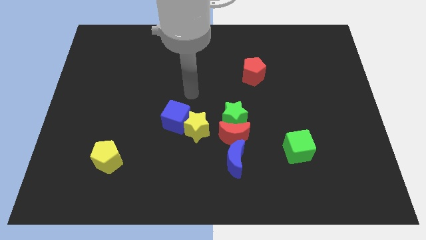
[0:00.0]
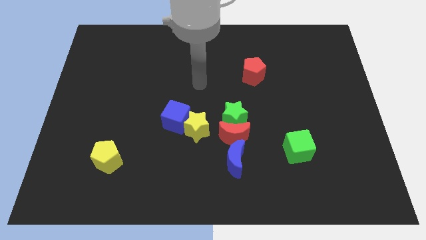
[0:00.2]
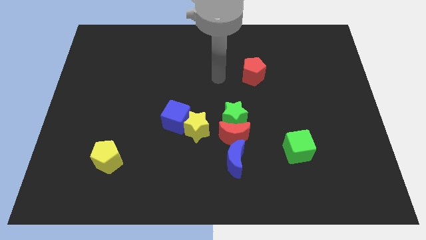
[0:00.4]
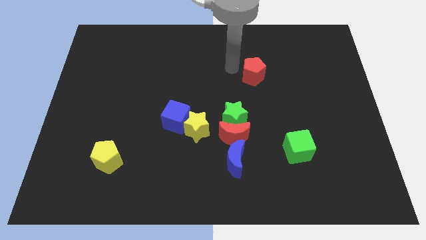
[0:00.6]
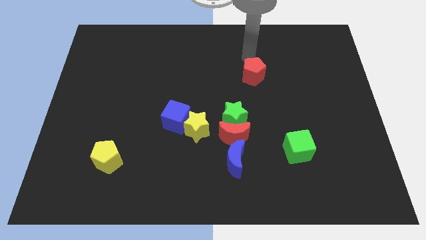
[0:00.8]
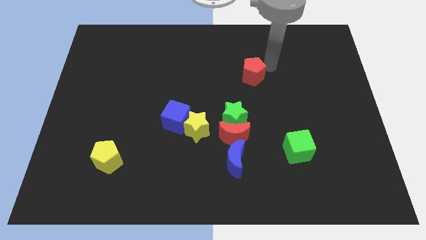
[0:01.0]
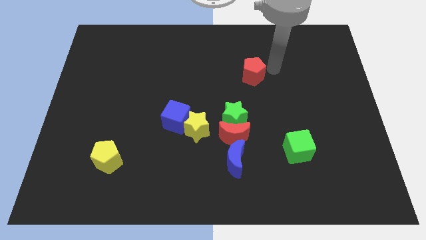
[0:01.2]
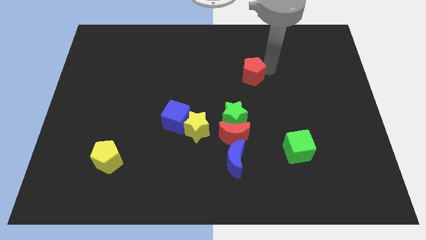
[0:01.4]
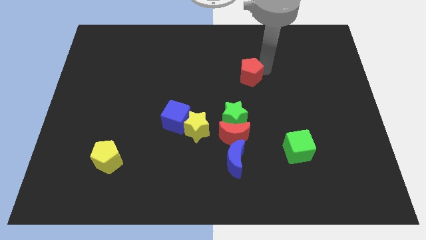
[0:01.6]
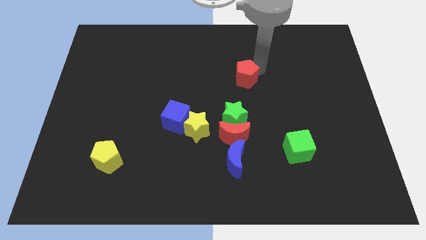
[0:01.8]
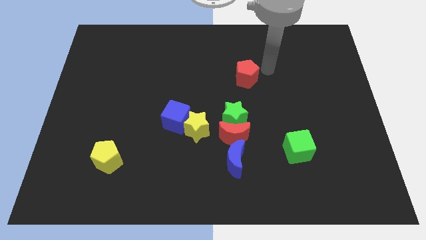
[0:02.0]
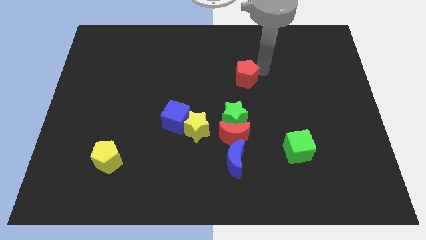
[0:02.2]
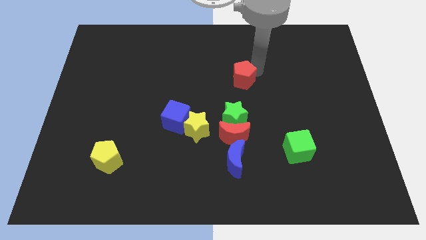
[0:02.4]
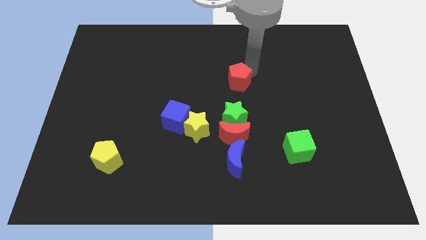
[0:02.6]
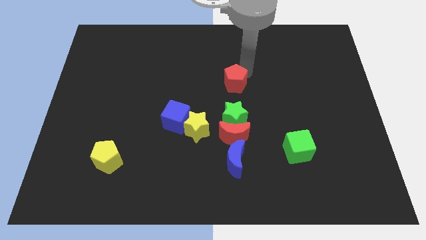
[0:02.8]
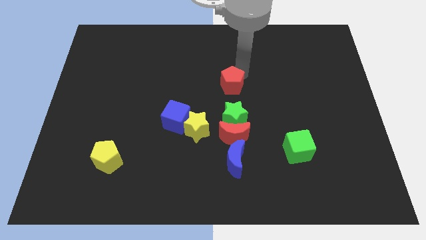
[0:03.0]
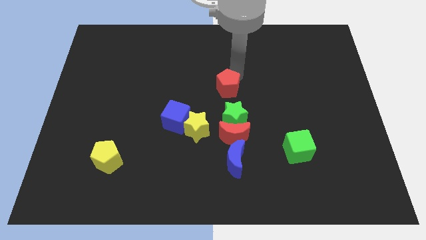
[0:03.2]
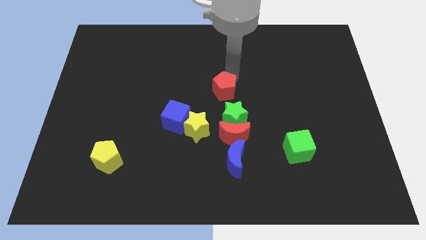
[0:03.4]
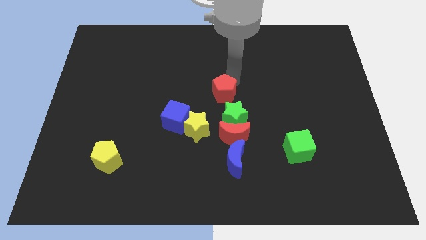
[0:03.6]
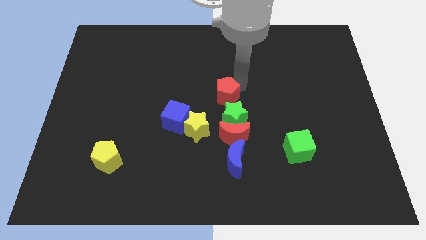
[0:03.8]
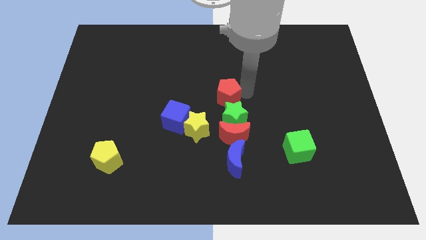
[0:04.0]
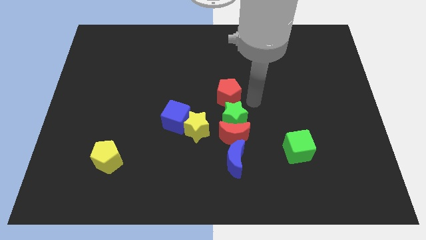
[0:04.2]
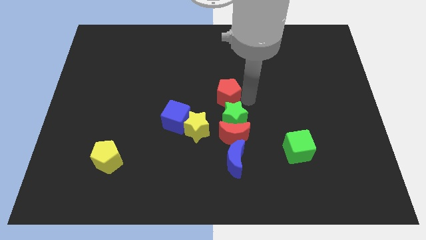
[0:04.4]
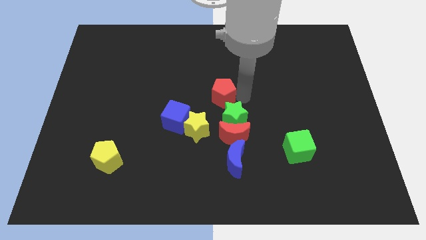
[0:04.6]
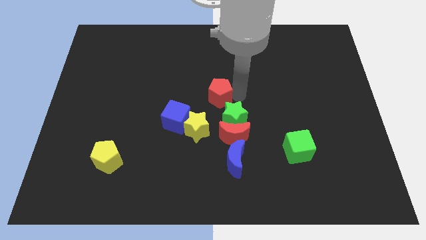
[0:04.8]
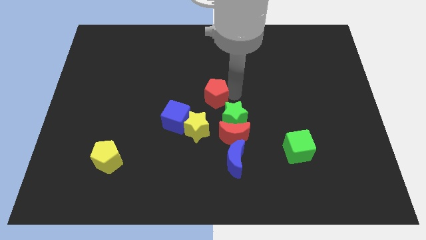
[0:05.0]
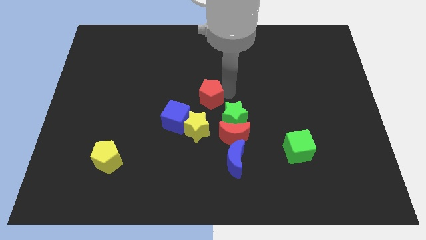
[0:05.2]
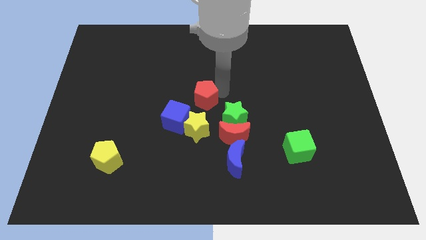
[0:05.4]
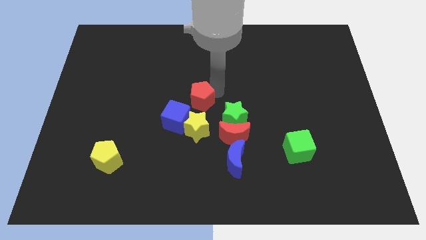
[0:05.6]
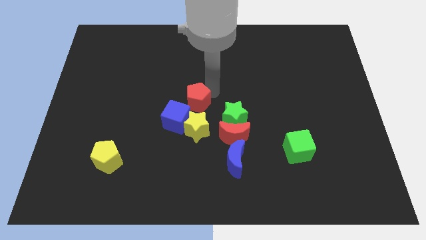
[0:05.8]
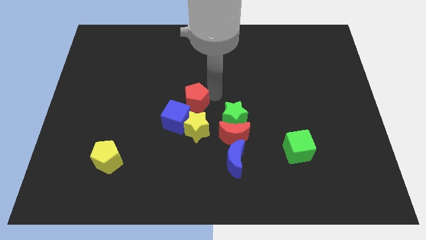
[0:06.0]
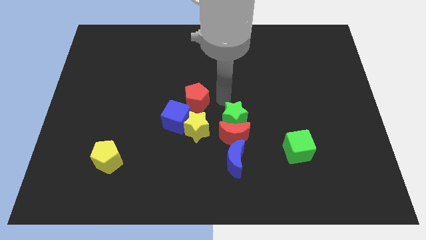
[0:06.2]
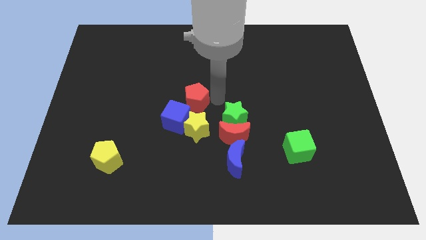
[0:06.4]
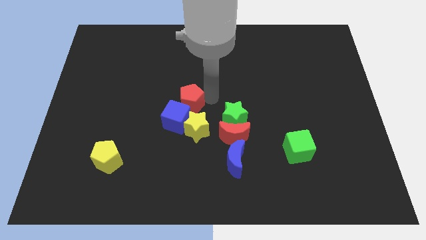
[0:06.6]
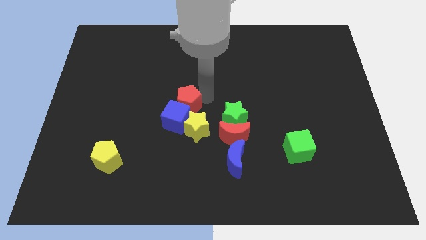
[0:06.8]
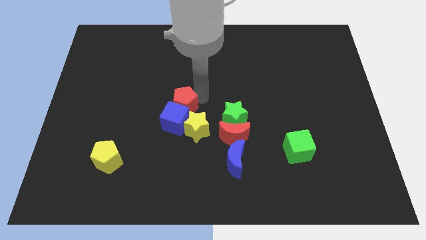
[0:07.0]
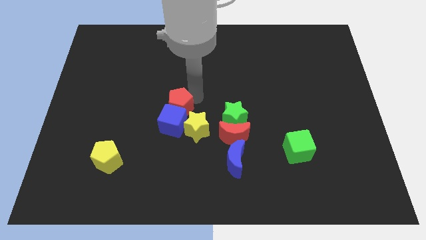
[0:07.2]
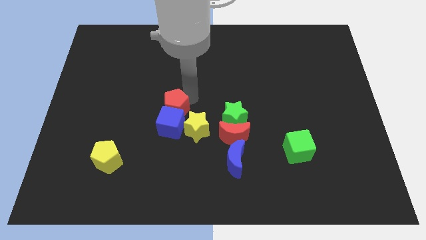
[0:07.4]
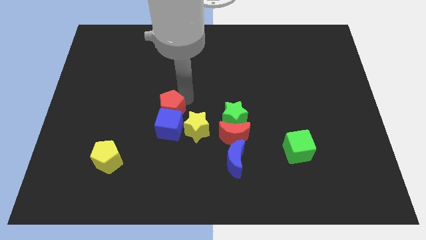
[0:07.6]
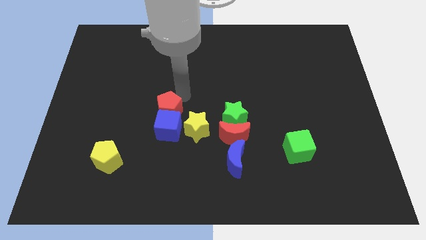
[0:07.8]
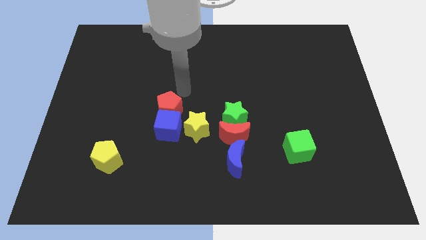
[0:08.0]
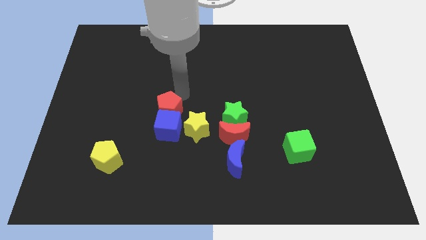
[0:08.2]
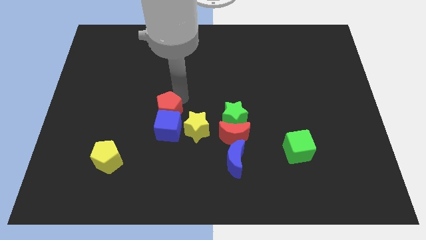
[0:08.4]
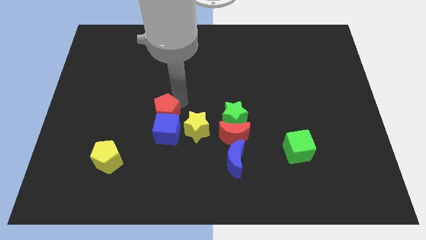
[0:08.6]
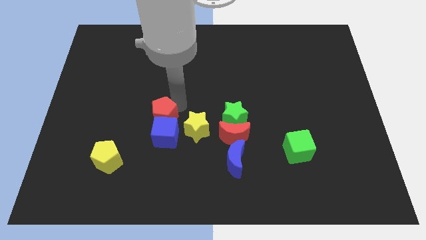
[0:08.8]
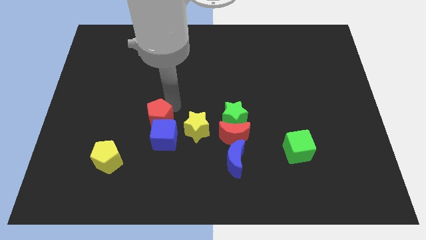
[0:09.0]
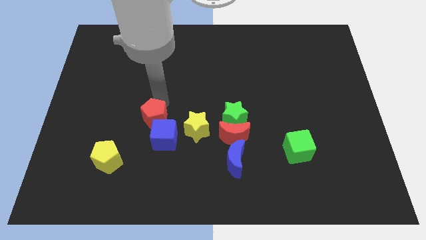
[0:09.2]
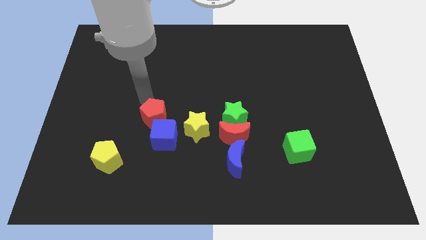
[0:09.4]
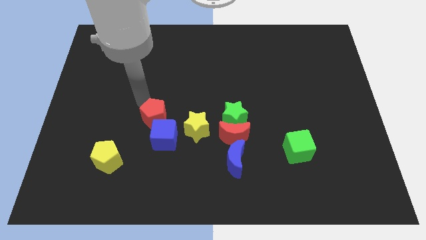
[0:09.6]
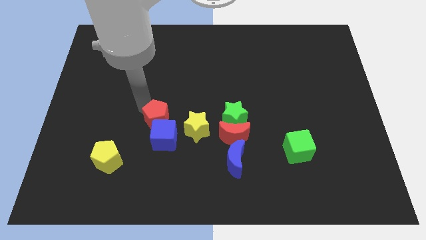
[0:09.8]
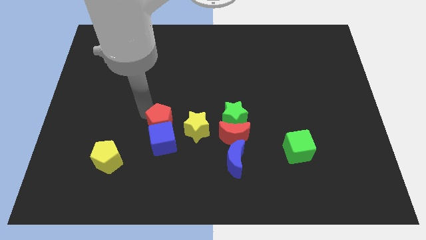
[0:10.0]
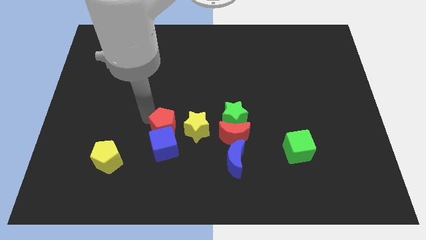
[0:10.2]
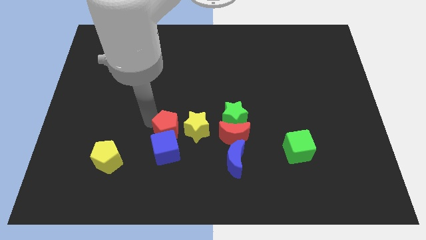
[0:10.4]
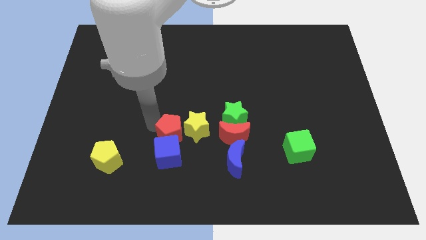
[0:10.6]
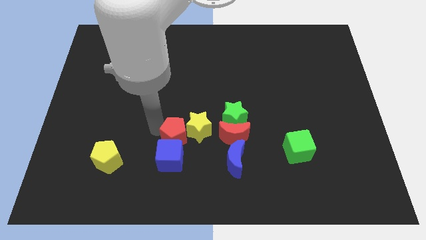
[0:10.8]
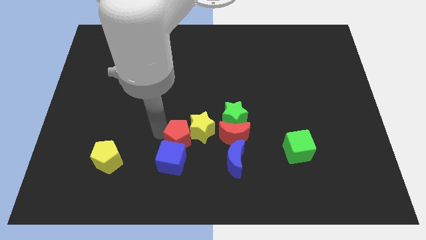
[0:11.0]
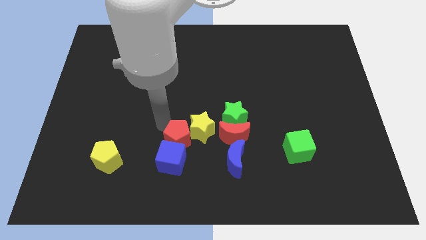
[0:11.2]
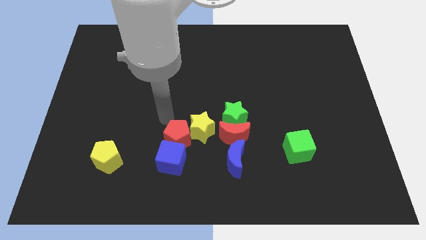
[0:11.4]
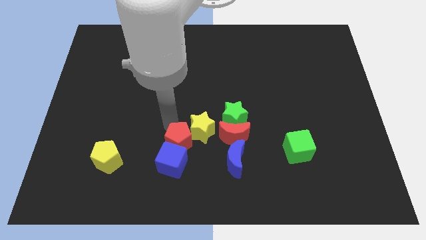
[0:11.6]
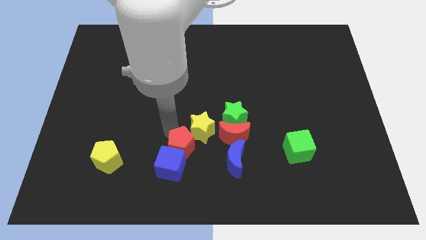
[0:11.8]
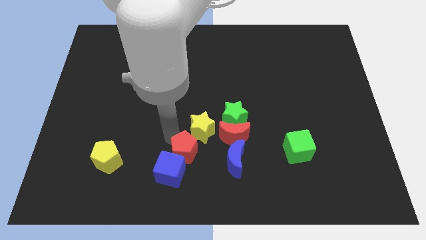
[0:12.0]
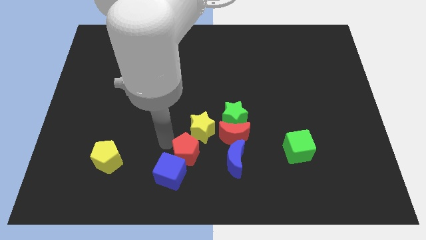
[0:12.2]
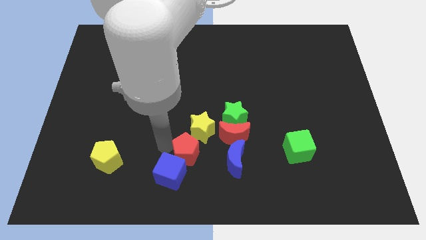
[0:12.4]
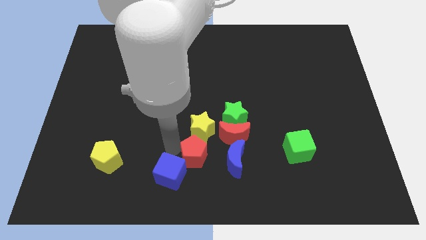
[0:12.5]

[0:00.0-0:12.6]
push the red pentagon to the bottom left of the green star
